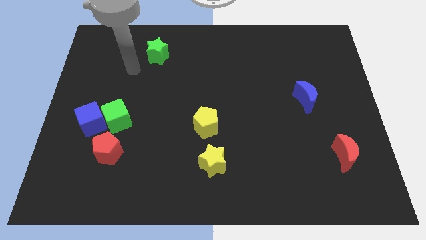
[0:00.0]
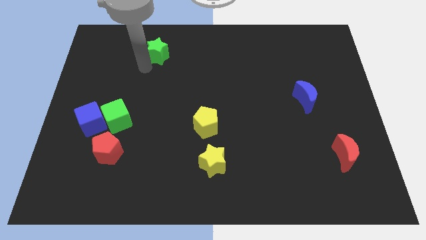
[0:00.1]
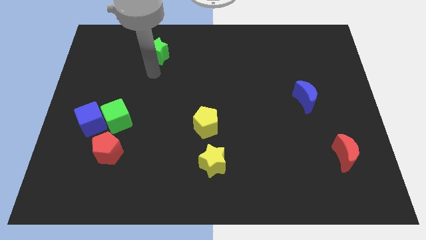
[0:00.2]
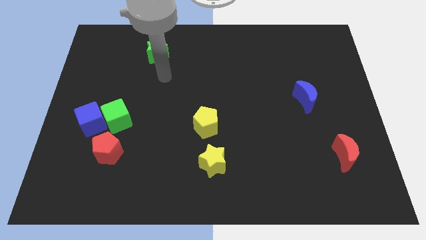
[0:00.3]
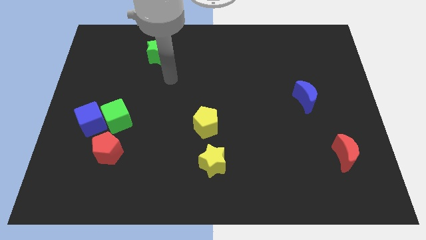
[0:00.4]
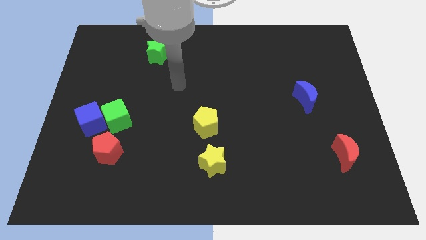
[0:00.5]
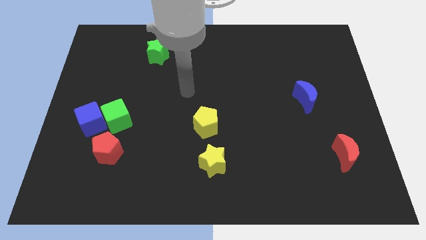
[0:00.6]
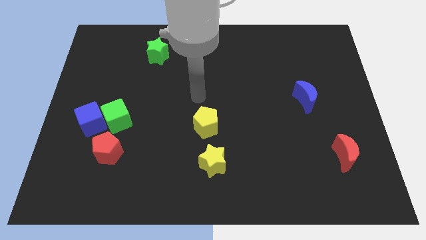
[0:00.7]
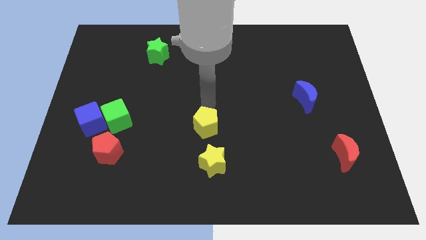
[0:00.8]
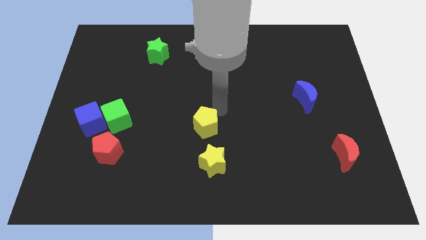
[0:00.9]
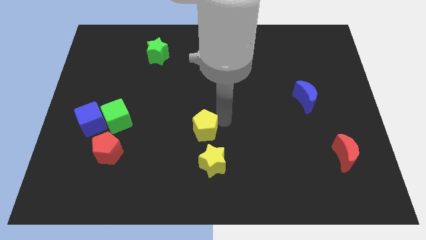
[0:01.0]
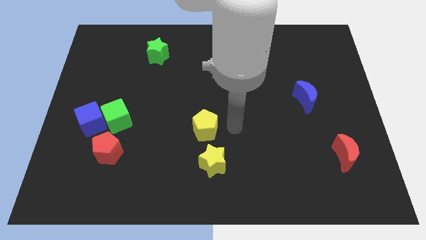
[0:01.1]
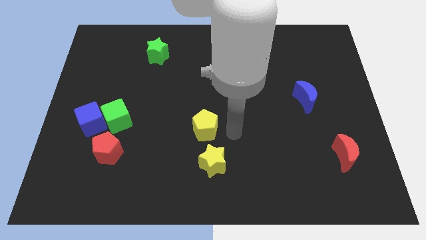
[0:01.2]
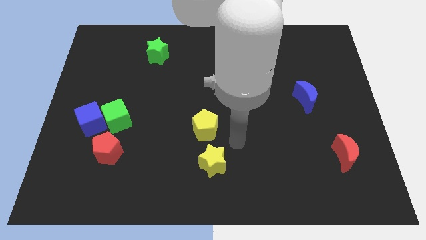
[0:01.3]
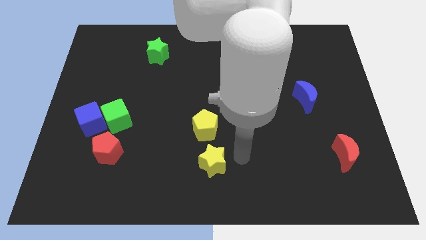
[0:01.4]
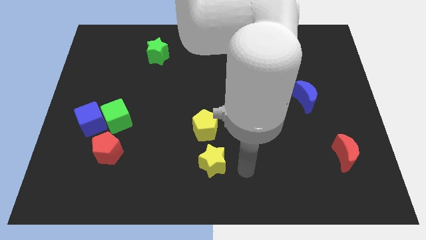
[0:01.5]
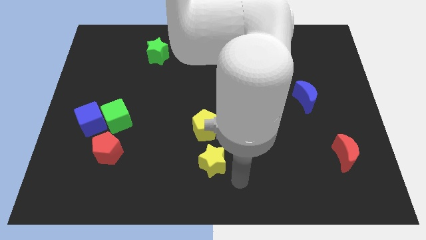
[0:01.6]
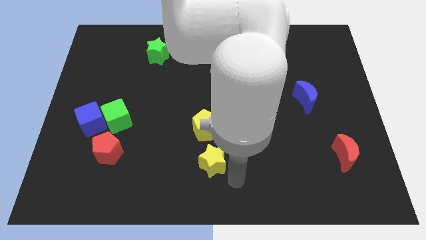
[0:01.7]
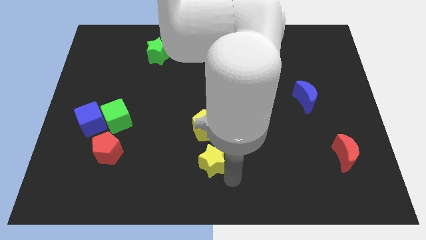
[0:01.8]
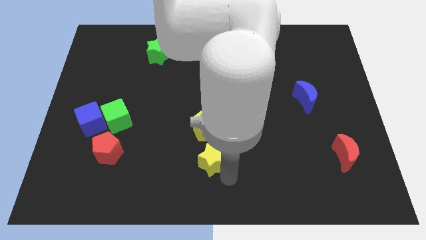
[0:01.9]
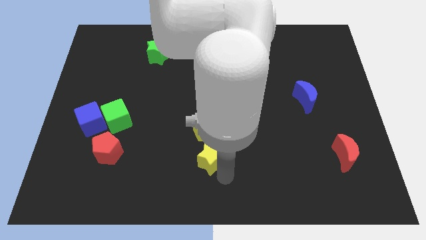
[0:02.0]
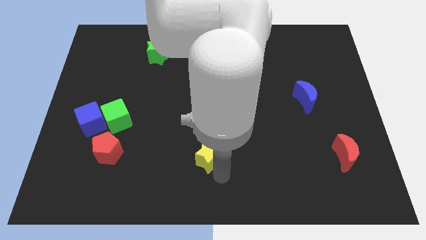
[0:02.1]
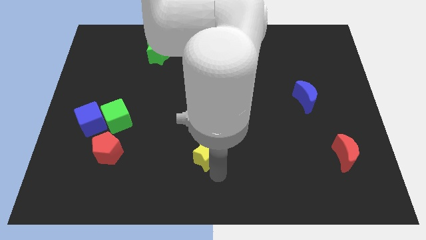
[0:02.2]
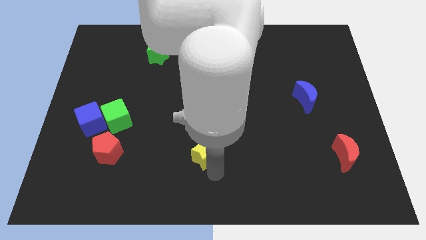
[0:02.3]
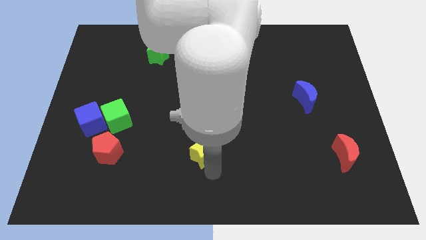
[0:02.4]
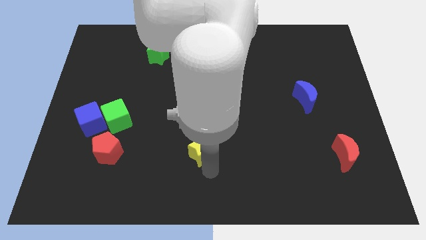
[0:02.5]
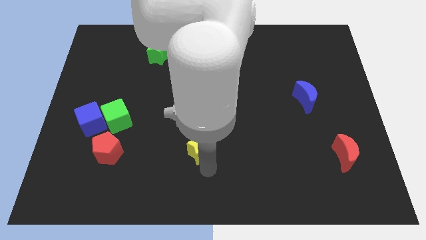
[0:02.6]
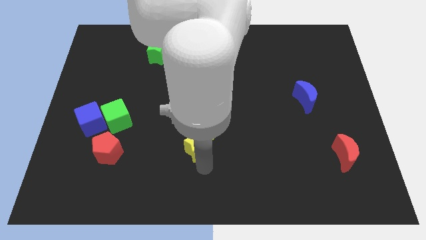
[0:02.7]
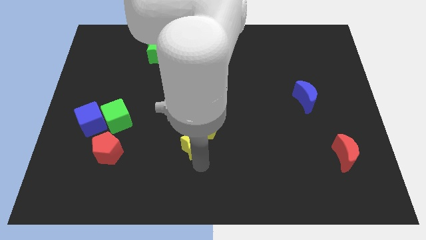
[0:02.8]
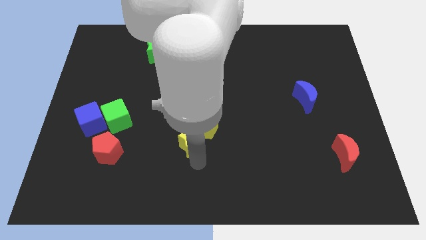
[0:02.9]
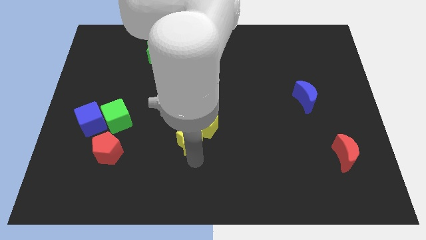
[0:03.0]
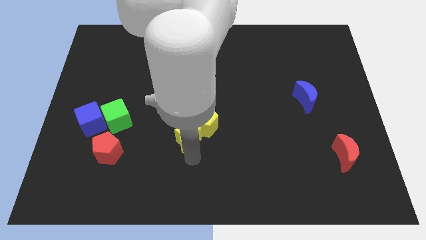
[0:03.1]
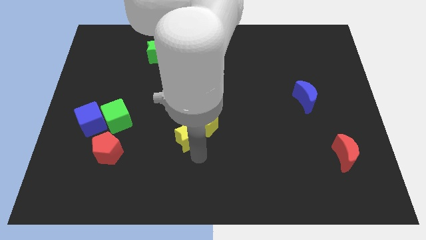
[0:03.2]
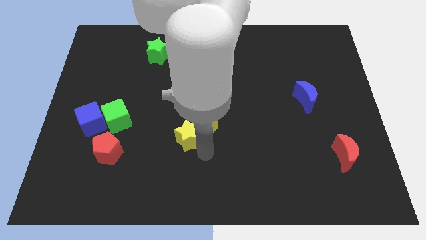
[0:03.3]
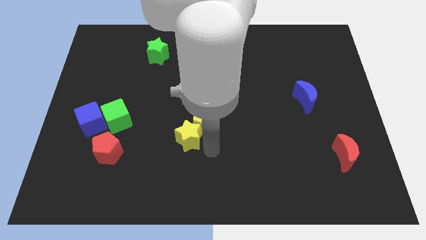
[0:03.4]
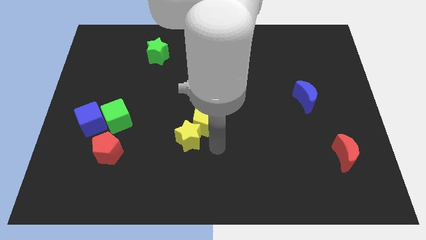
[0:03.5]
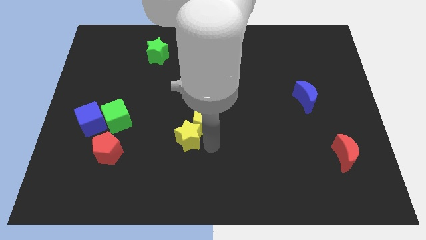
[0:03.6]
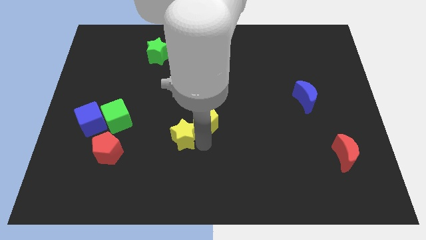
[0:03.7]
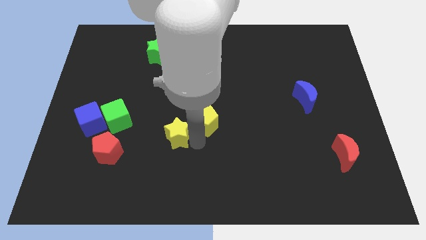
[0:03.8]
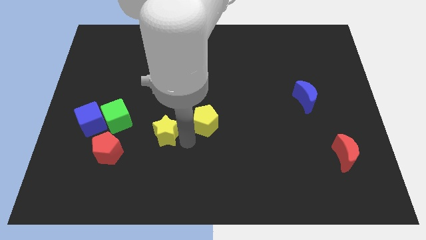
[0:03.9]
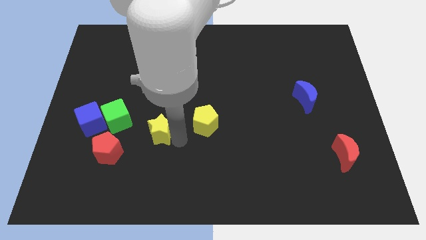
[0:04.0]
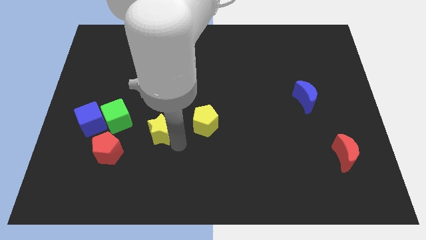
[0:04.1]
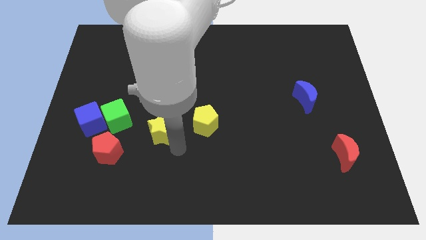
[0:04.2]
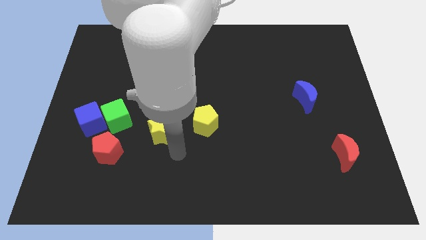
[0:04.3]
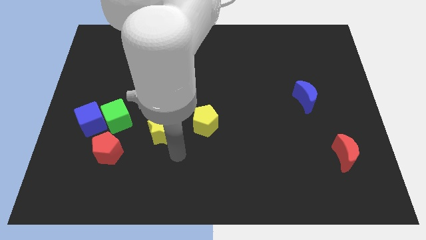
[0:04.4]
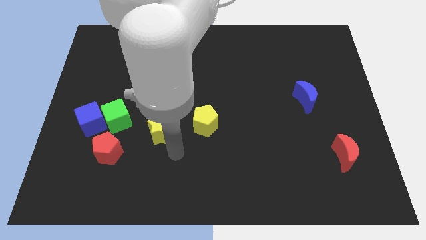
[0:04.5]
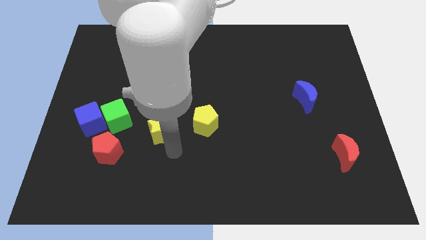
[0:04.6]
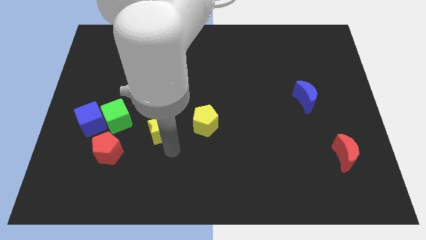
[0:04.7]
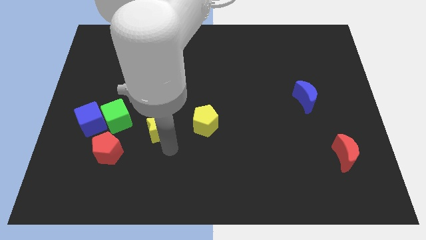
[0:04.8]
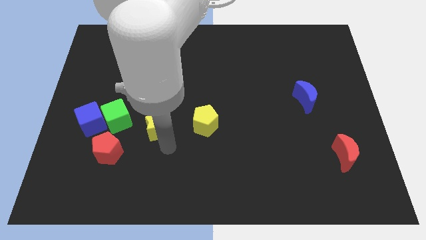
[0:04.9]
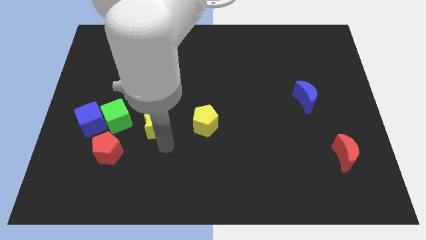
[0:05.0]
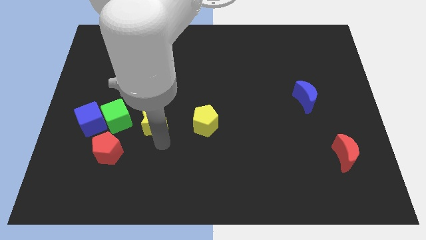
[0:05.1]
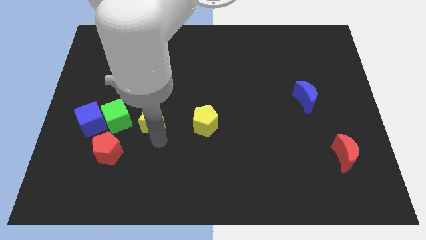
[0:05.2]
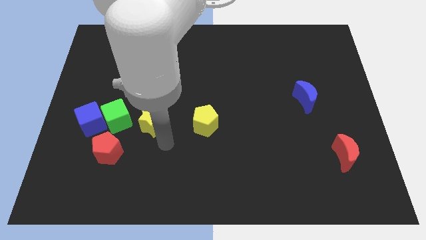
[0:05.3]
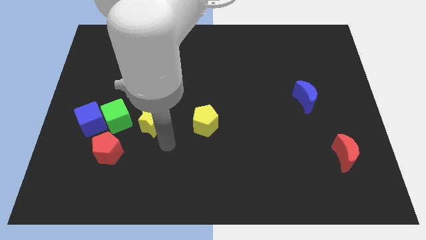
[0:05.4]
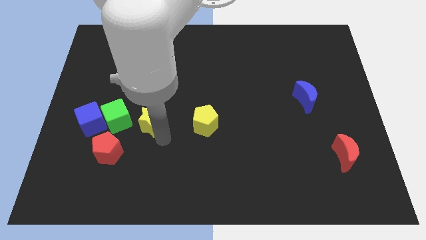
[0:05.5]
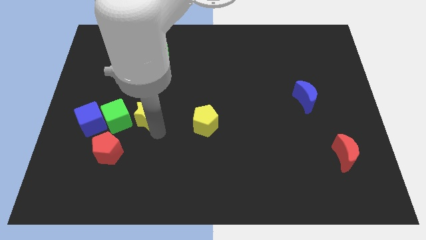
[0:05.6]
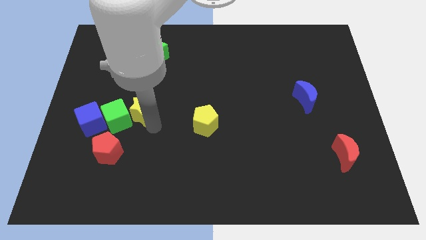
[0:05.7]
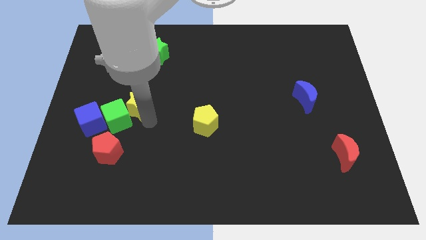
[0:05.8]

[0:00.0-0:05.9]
put the yellow star to the top right side of the blue cube

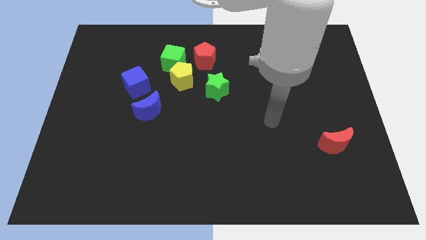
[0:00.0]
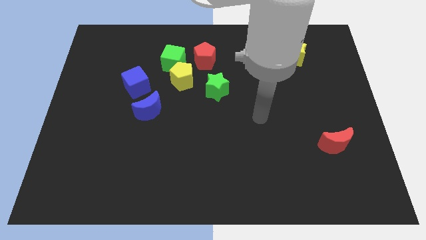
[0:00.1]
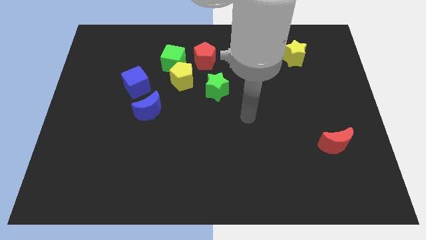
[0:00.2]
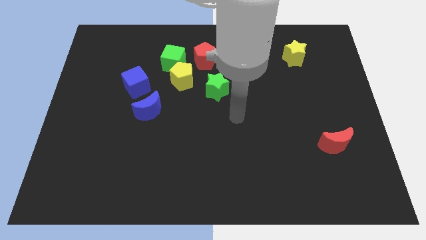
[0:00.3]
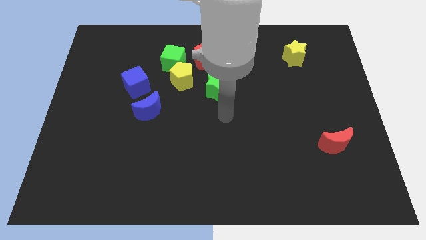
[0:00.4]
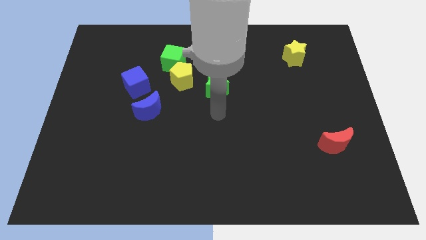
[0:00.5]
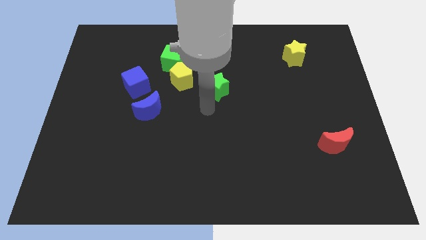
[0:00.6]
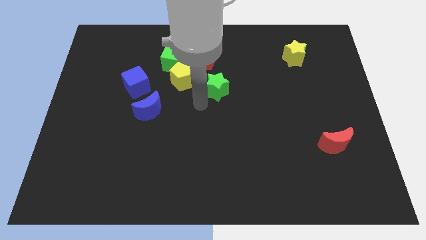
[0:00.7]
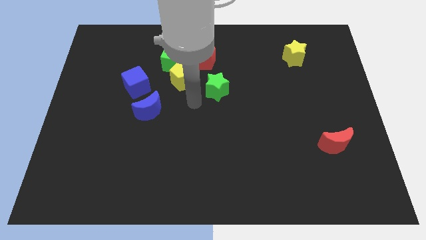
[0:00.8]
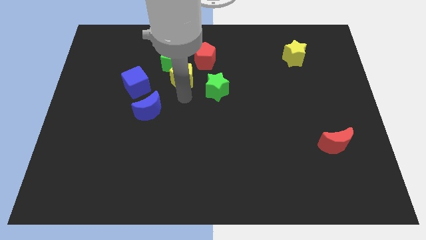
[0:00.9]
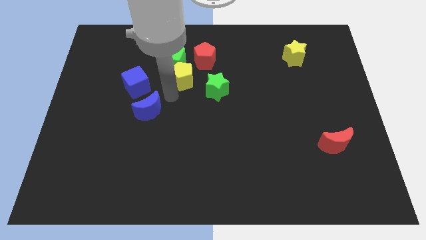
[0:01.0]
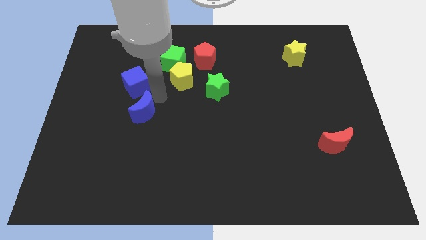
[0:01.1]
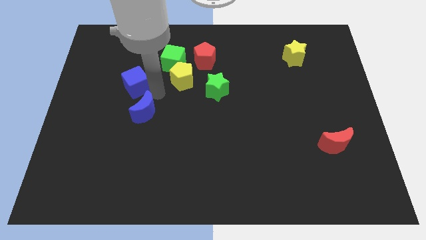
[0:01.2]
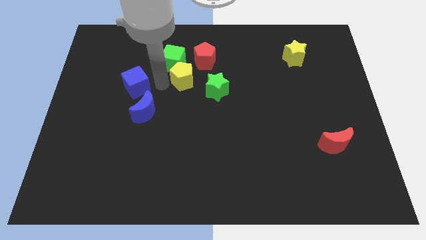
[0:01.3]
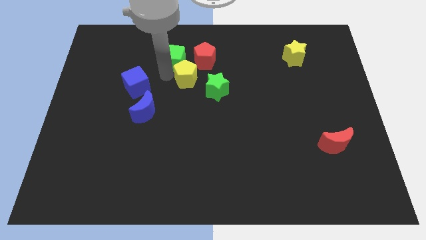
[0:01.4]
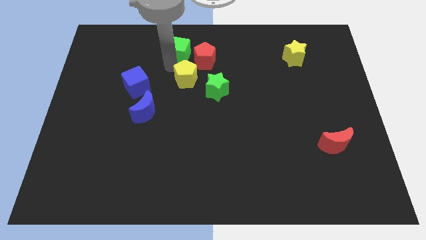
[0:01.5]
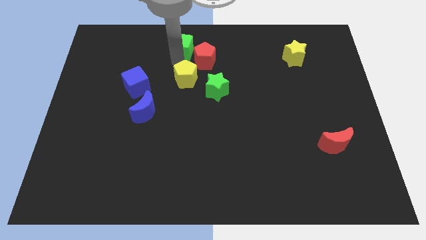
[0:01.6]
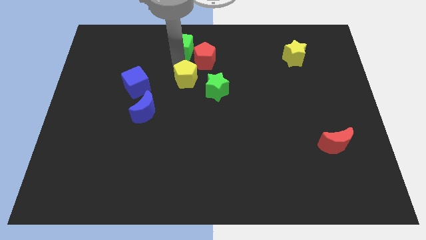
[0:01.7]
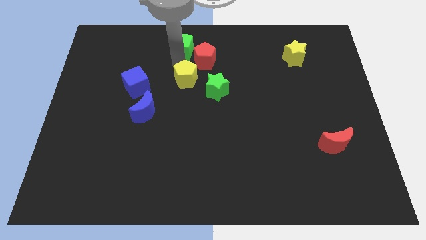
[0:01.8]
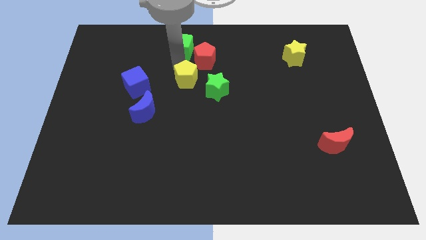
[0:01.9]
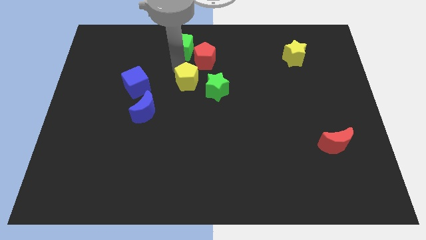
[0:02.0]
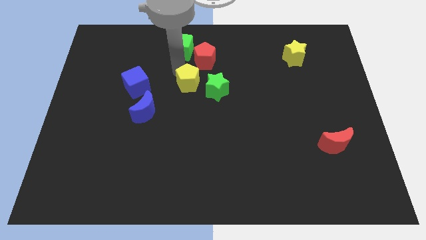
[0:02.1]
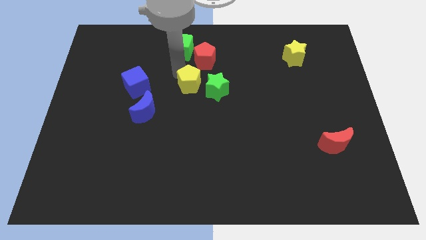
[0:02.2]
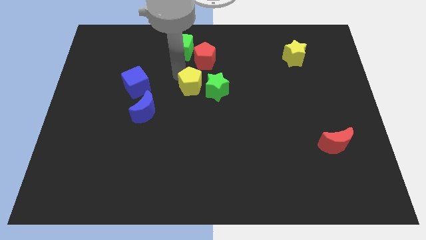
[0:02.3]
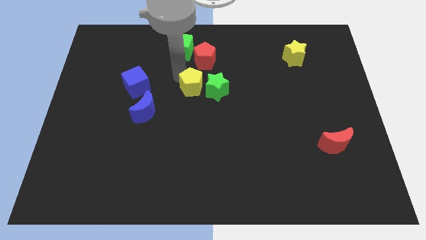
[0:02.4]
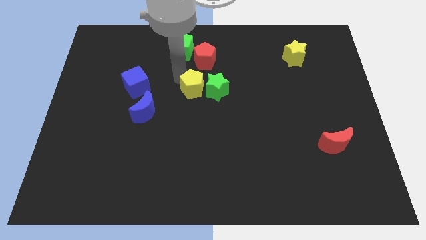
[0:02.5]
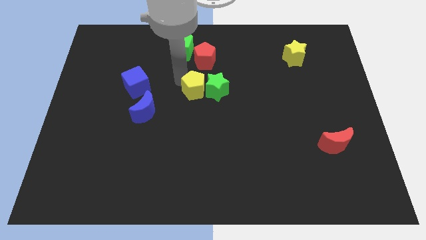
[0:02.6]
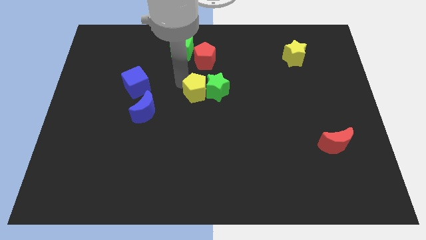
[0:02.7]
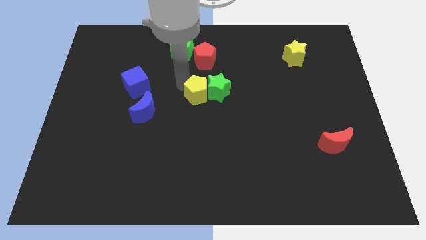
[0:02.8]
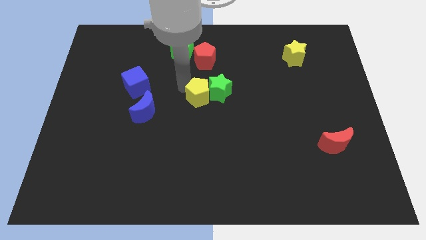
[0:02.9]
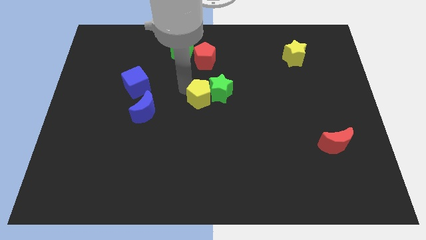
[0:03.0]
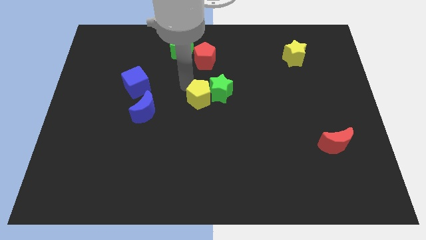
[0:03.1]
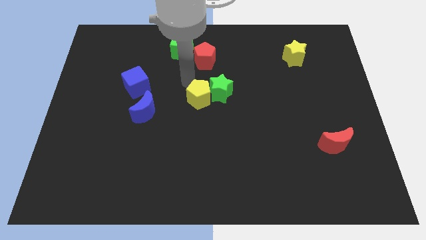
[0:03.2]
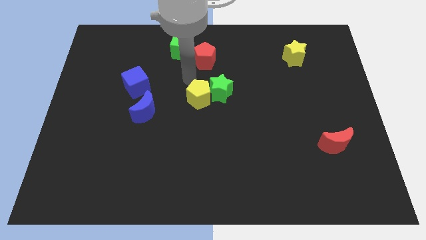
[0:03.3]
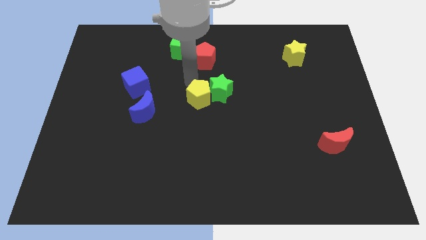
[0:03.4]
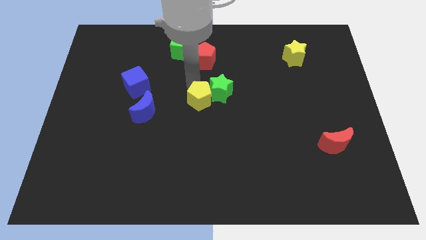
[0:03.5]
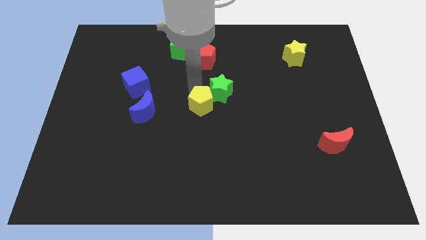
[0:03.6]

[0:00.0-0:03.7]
slide the yellow pentagon to the bottom of the green star
